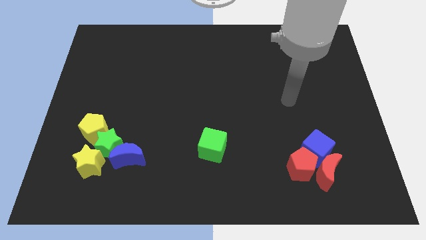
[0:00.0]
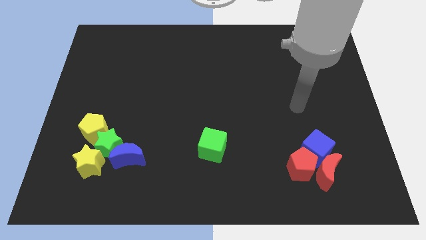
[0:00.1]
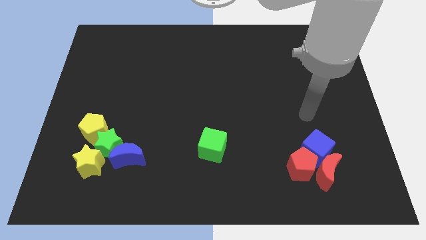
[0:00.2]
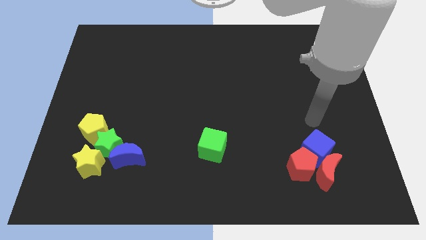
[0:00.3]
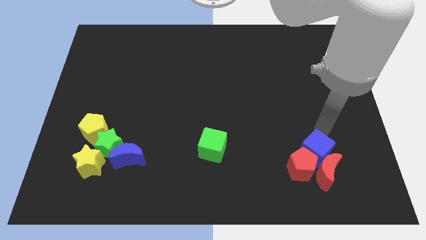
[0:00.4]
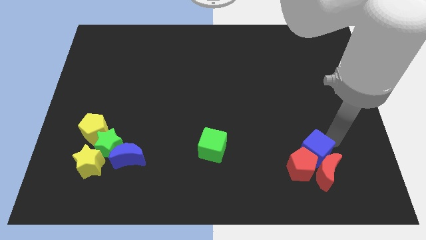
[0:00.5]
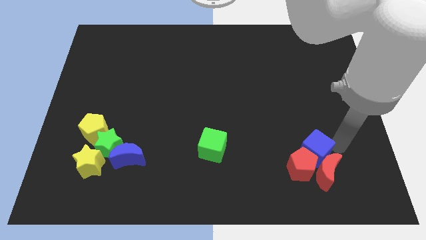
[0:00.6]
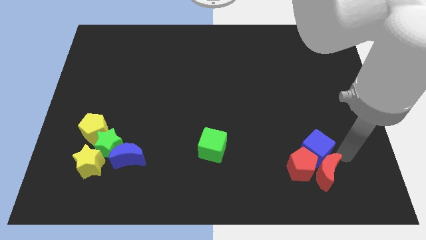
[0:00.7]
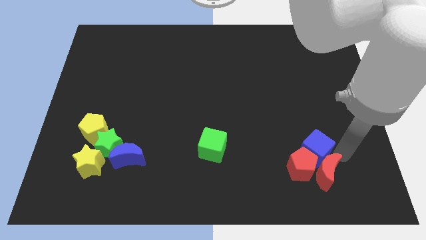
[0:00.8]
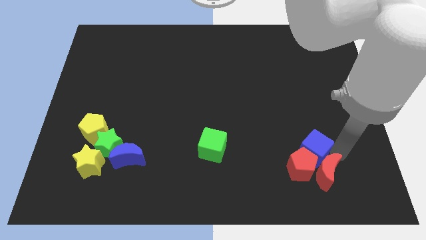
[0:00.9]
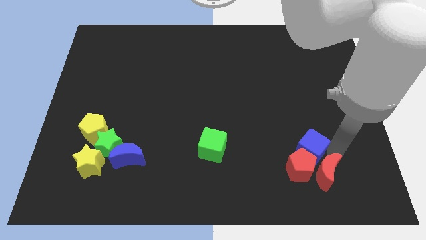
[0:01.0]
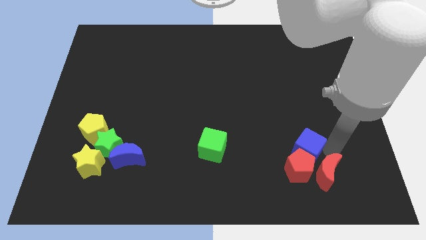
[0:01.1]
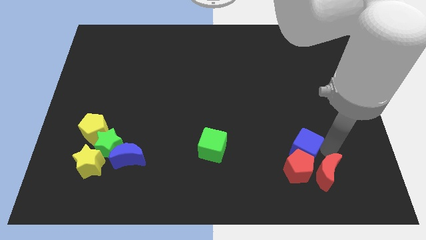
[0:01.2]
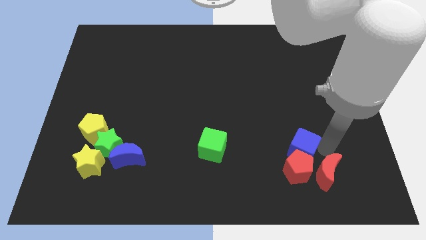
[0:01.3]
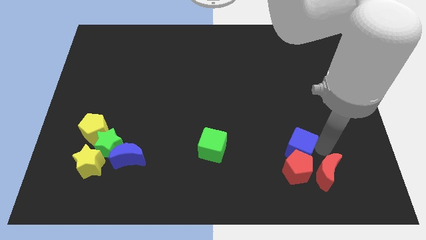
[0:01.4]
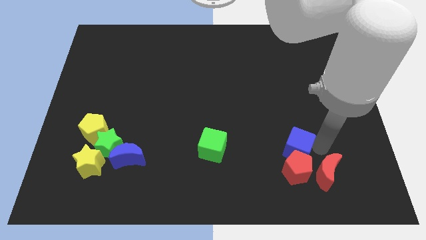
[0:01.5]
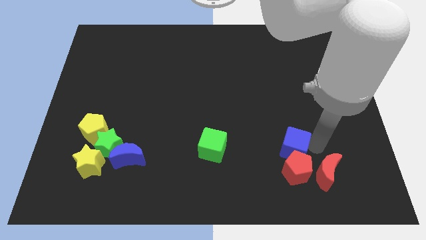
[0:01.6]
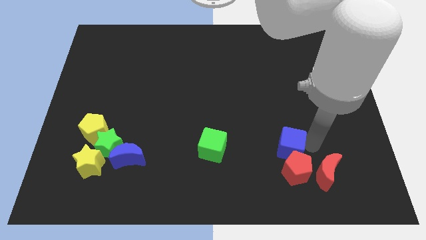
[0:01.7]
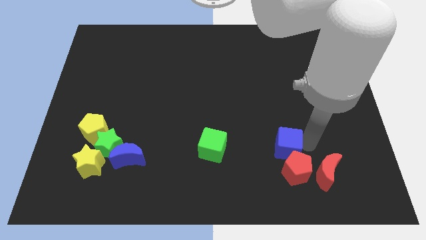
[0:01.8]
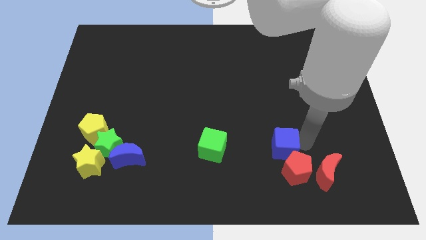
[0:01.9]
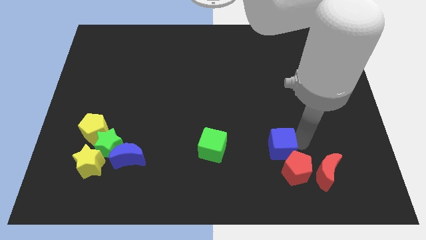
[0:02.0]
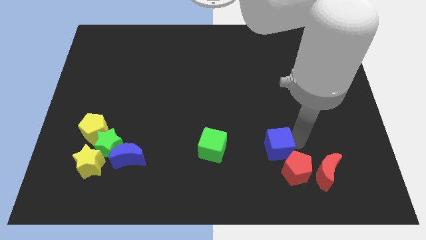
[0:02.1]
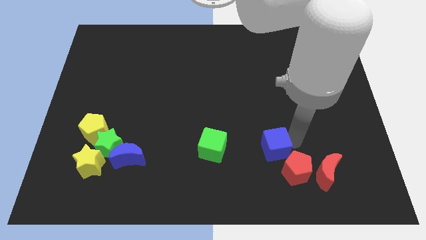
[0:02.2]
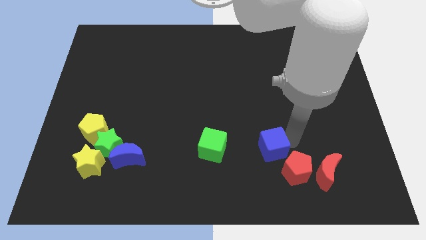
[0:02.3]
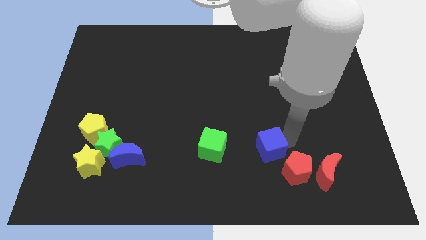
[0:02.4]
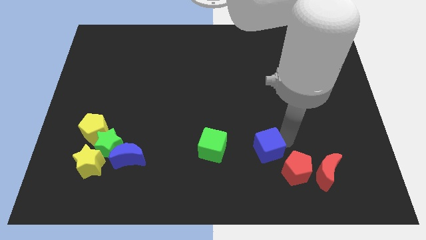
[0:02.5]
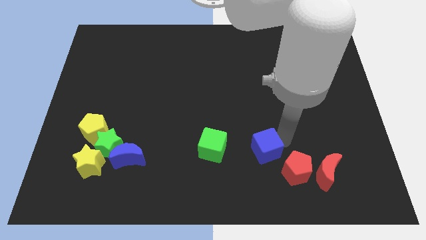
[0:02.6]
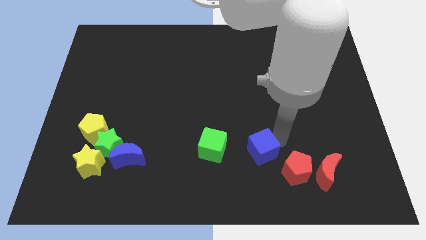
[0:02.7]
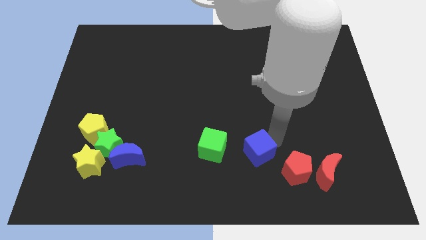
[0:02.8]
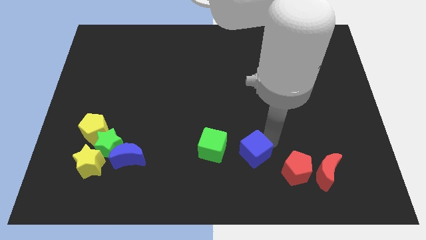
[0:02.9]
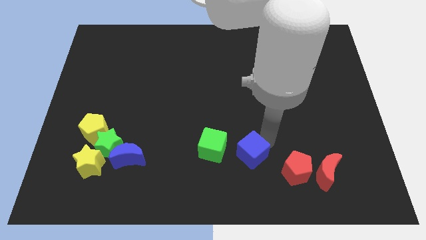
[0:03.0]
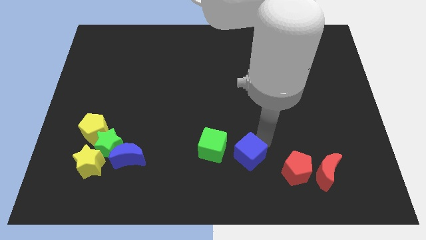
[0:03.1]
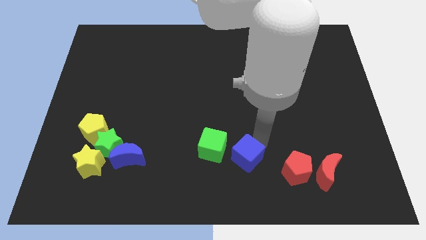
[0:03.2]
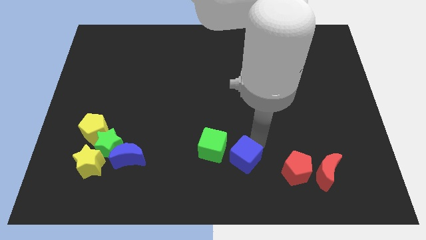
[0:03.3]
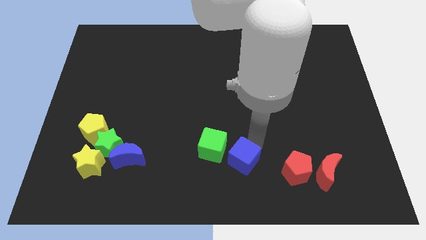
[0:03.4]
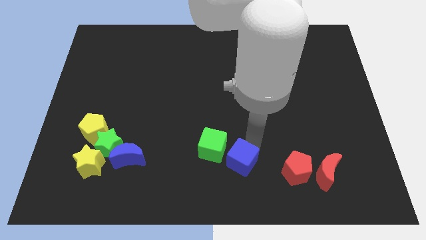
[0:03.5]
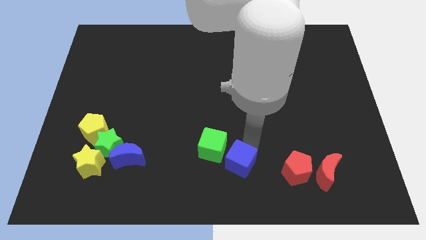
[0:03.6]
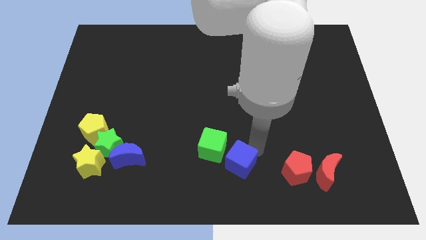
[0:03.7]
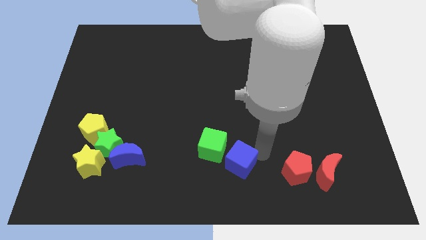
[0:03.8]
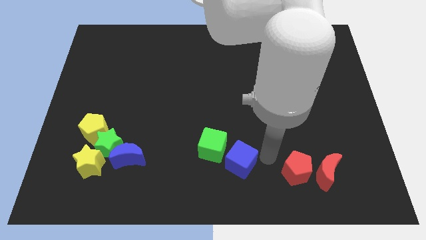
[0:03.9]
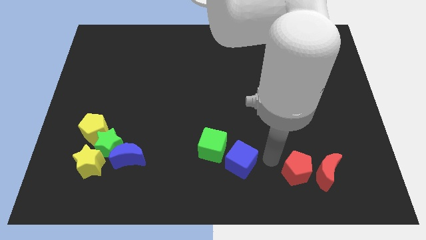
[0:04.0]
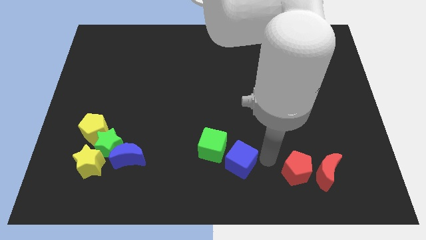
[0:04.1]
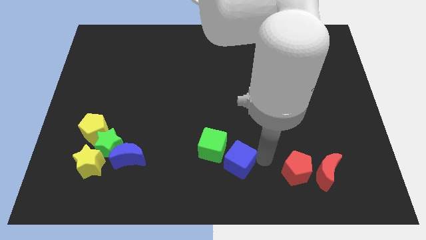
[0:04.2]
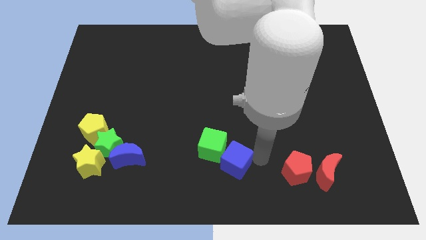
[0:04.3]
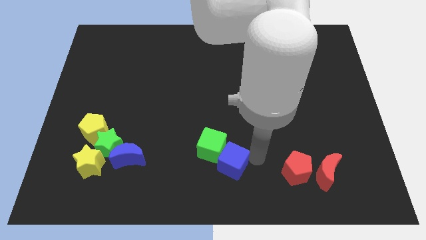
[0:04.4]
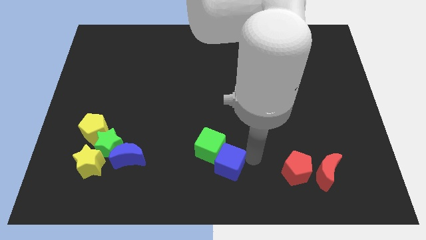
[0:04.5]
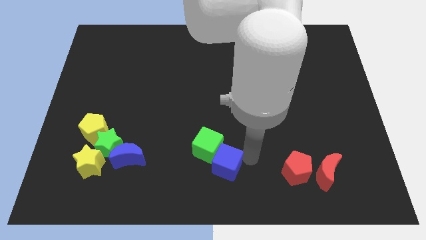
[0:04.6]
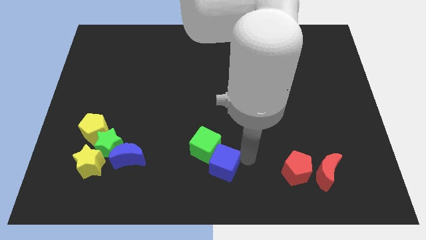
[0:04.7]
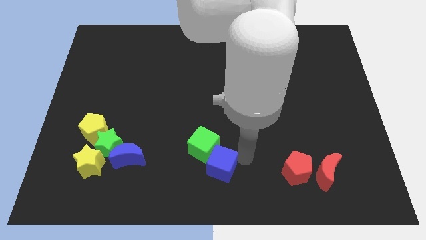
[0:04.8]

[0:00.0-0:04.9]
move the blue cube to the left

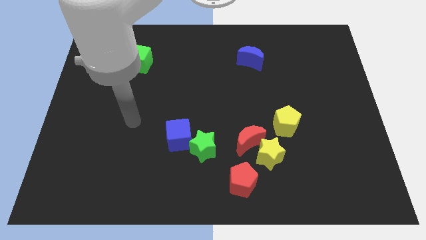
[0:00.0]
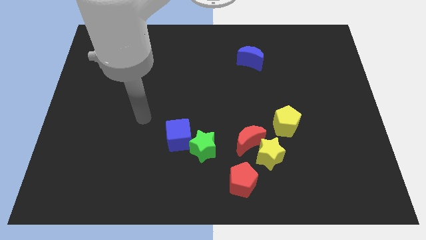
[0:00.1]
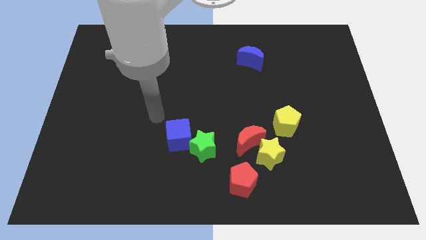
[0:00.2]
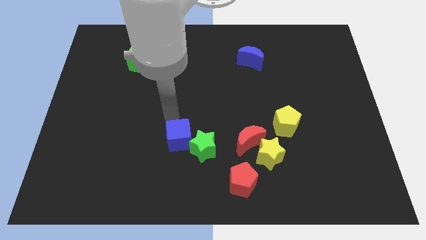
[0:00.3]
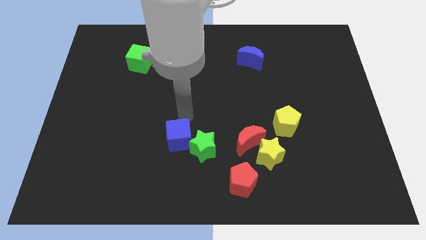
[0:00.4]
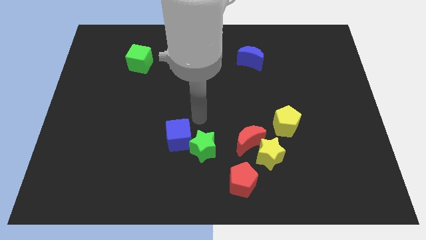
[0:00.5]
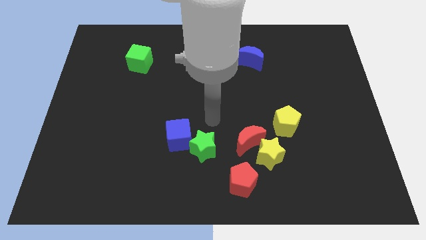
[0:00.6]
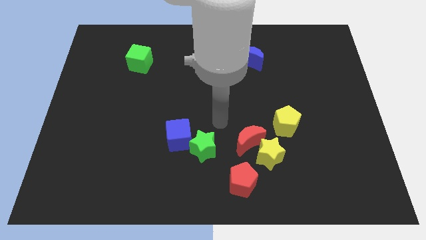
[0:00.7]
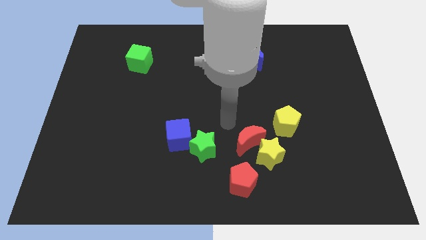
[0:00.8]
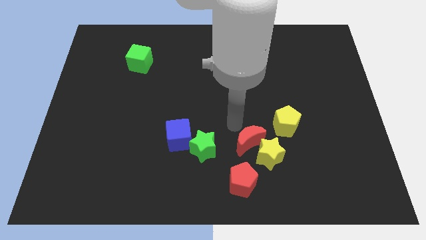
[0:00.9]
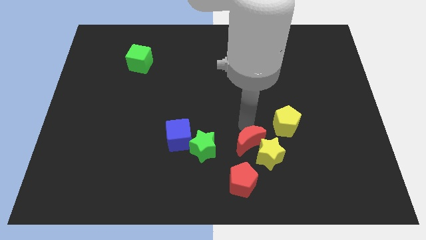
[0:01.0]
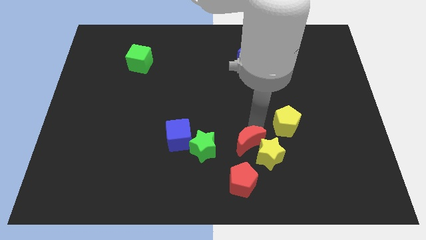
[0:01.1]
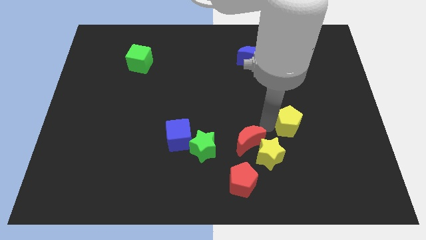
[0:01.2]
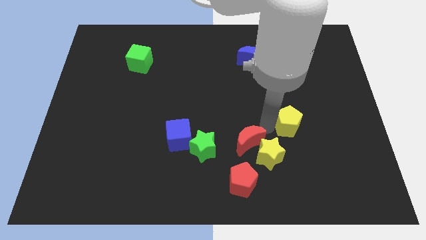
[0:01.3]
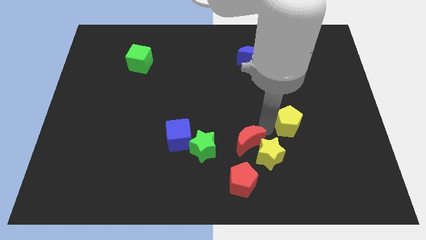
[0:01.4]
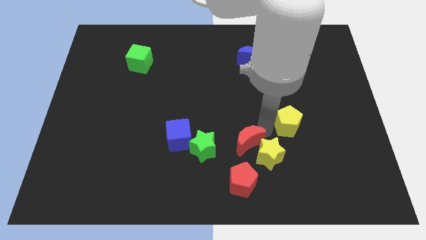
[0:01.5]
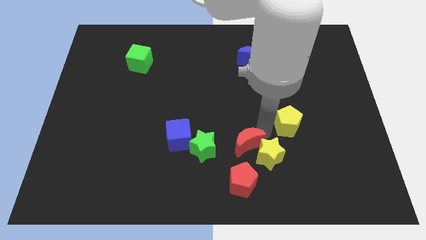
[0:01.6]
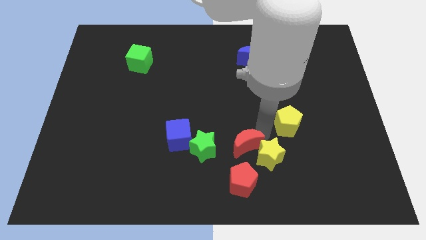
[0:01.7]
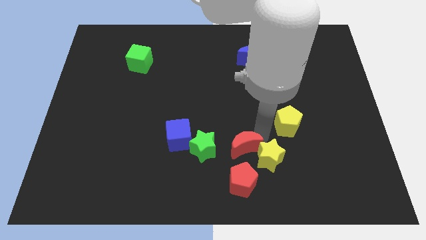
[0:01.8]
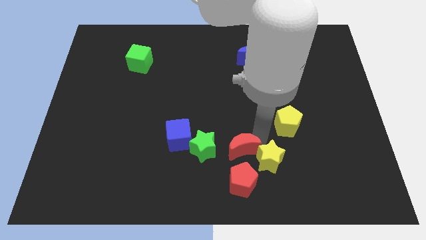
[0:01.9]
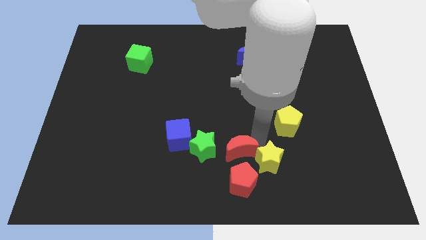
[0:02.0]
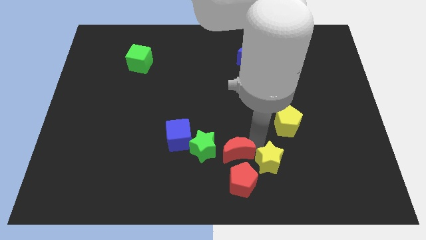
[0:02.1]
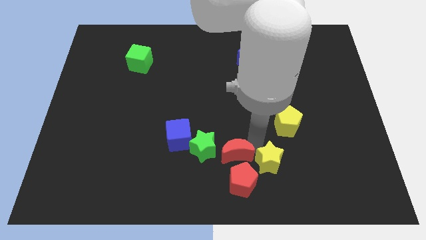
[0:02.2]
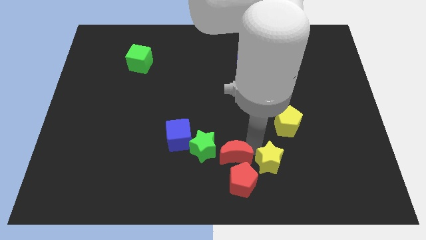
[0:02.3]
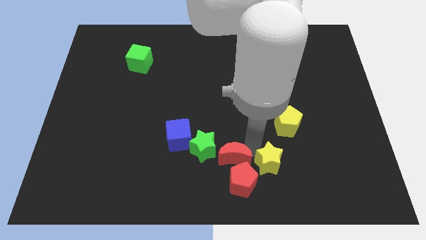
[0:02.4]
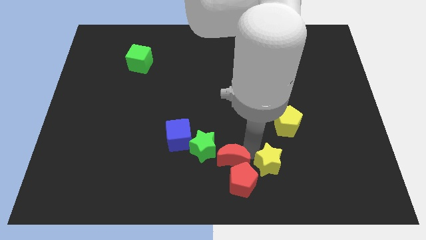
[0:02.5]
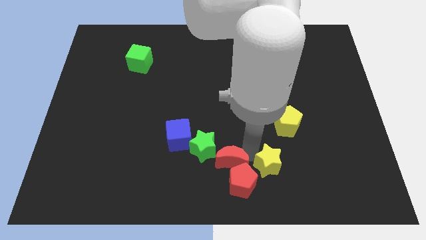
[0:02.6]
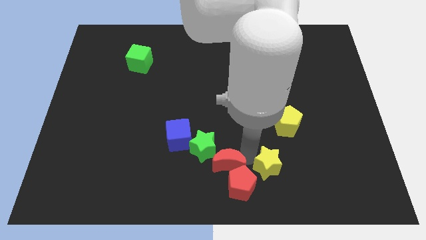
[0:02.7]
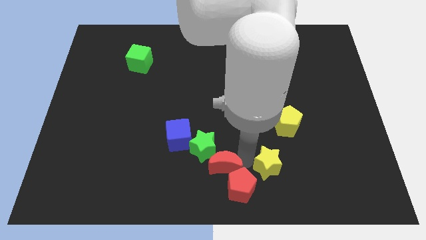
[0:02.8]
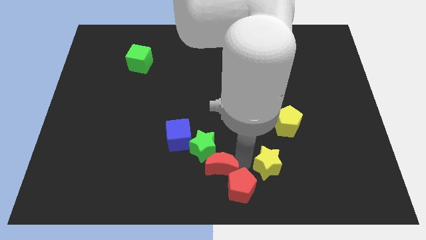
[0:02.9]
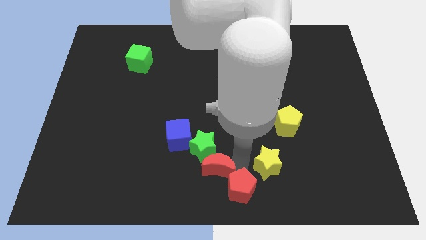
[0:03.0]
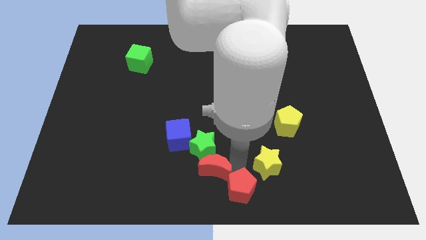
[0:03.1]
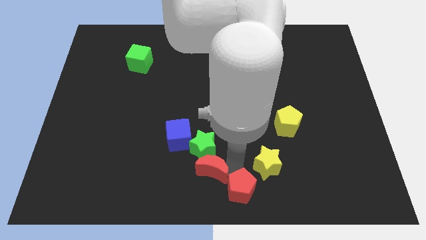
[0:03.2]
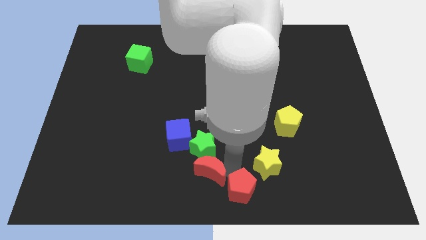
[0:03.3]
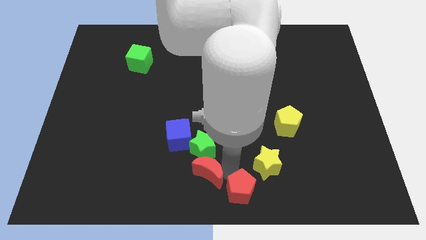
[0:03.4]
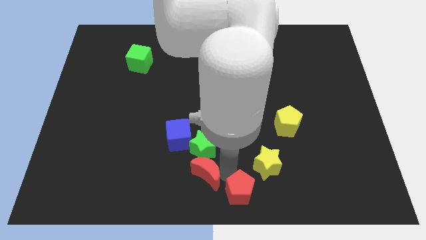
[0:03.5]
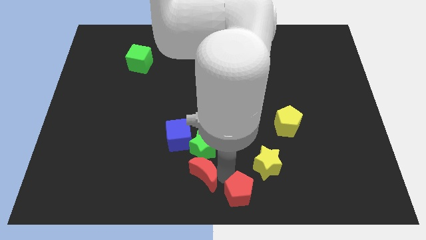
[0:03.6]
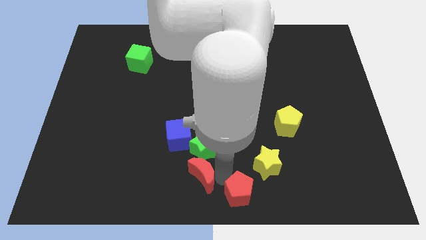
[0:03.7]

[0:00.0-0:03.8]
push the red moon to the left a little bit
